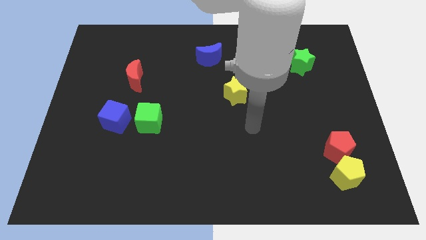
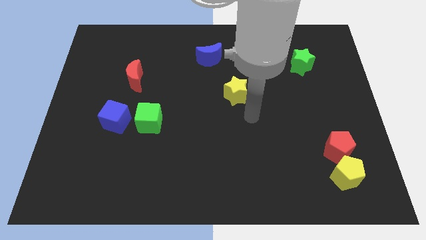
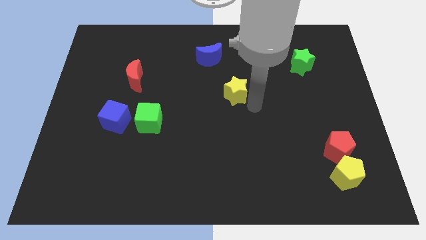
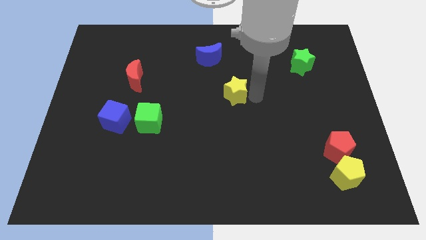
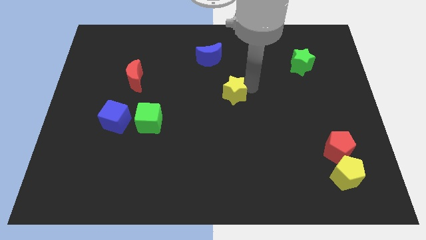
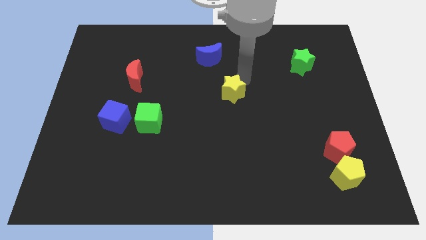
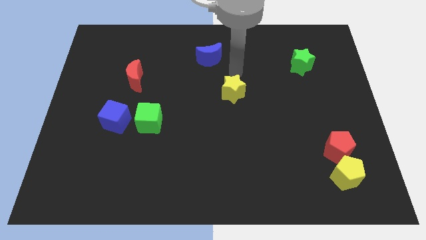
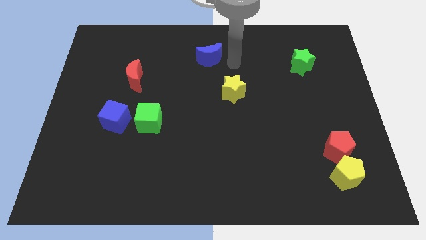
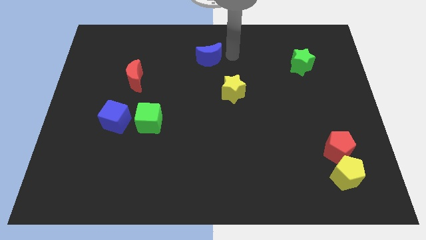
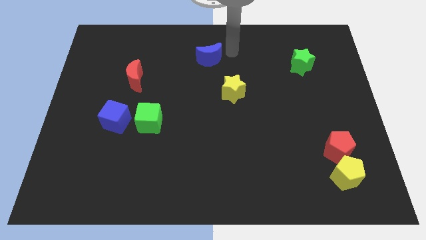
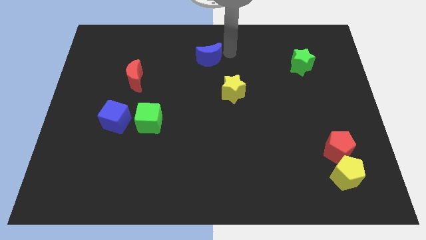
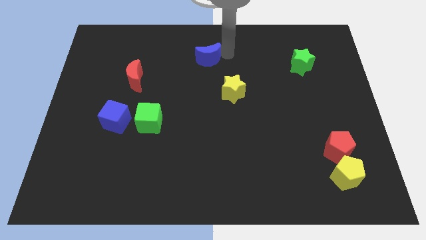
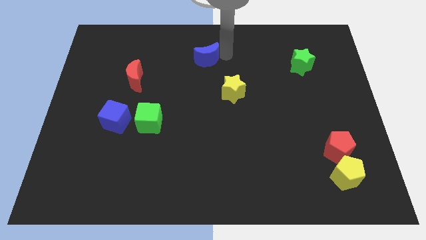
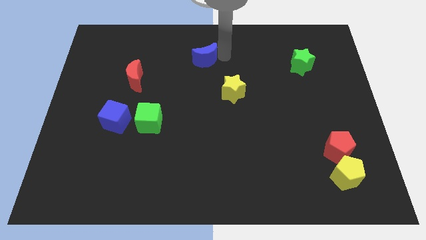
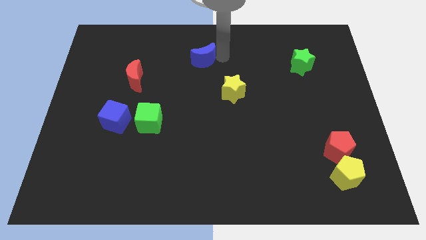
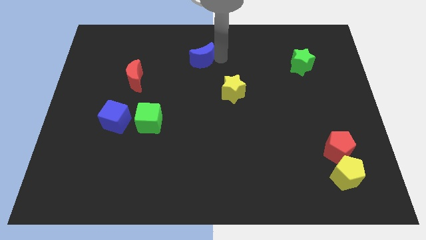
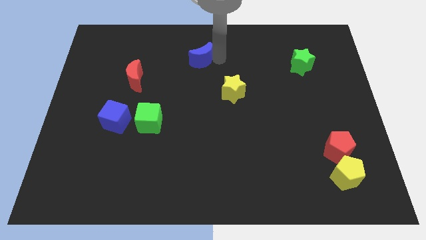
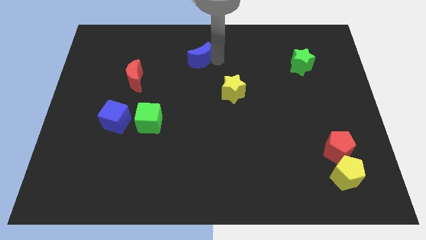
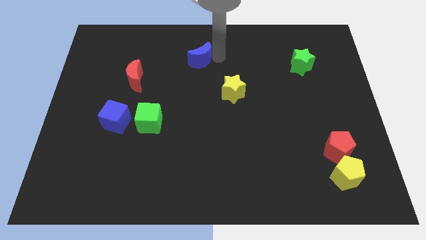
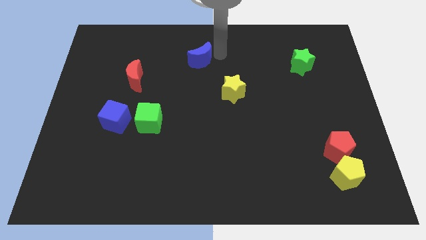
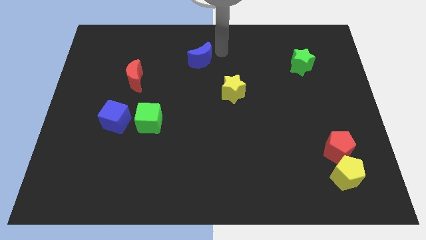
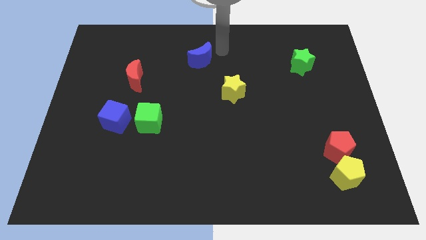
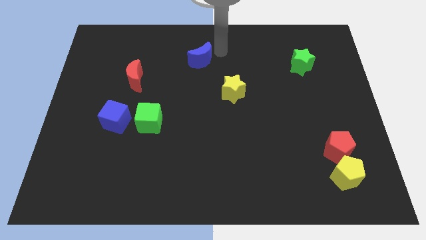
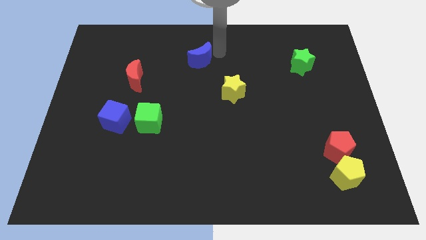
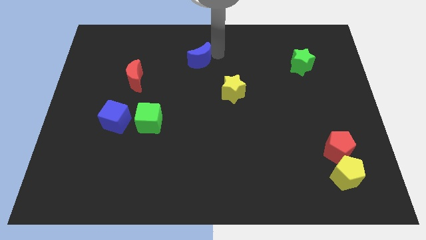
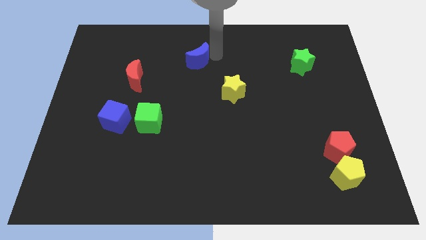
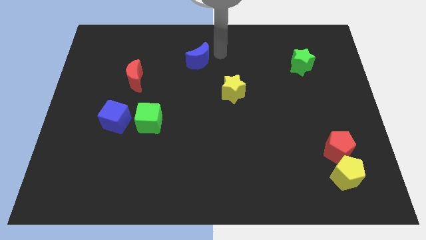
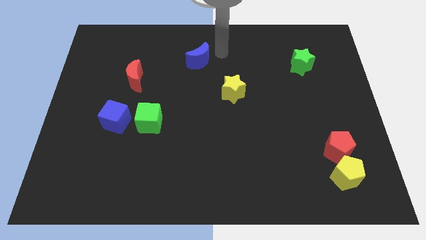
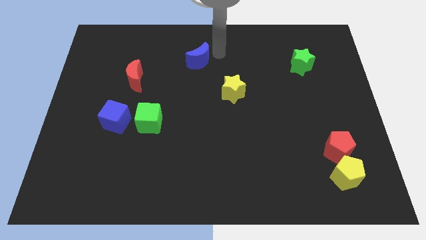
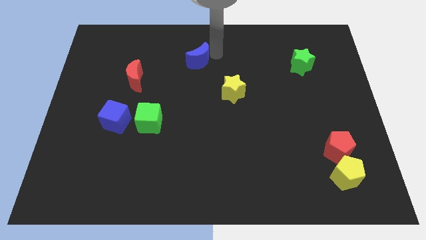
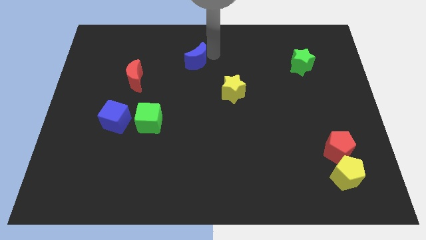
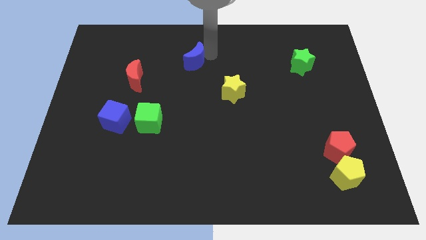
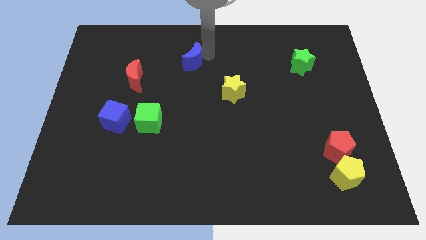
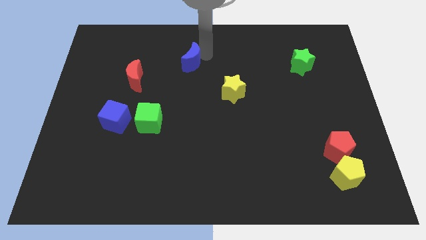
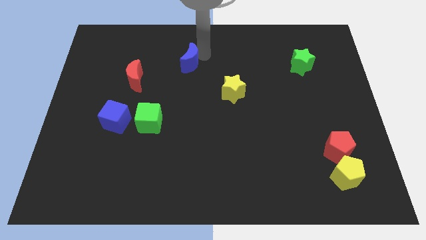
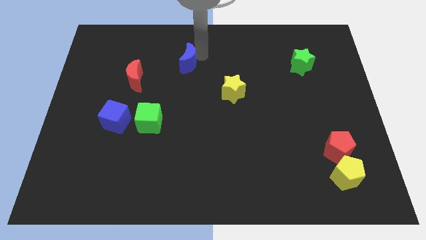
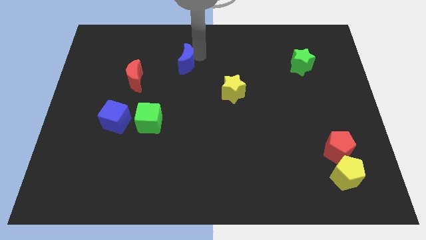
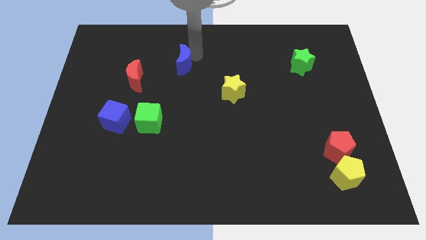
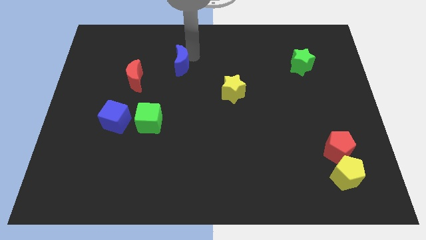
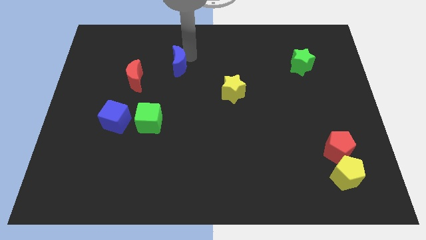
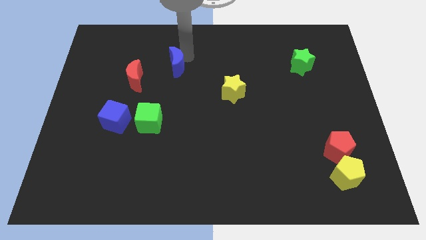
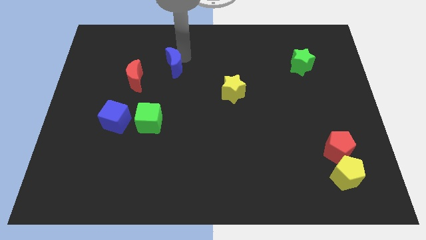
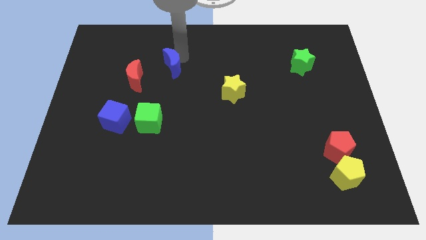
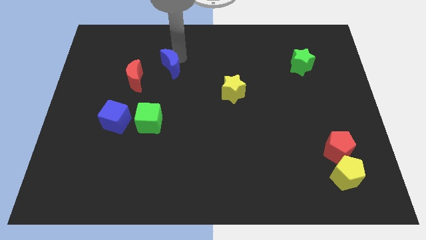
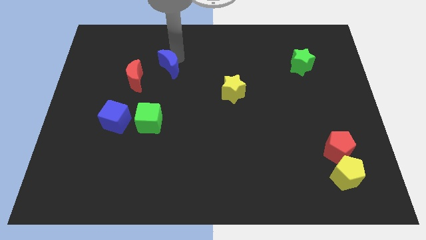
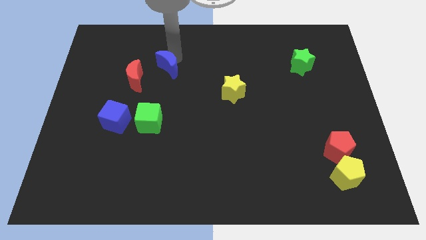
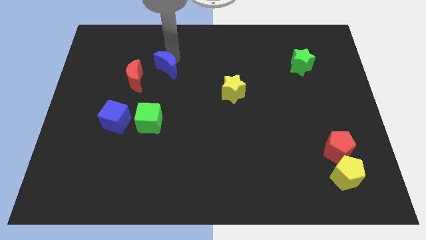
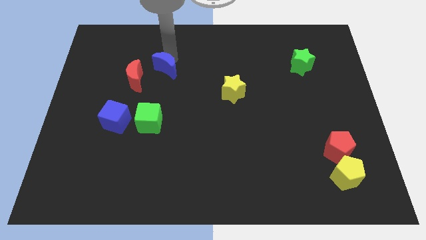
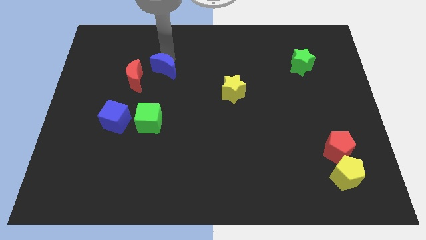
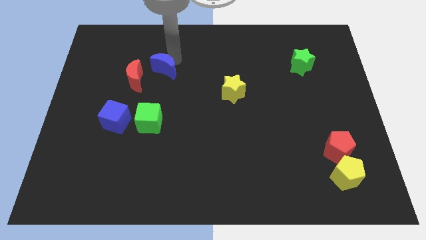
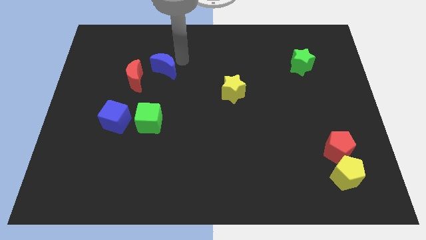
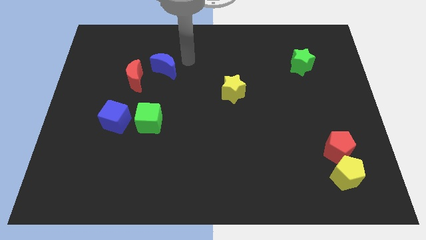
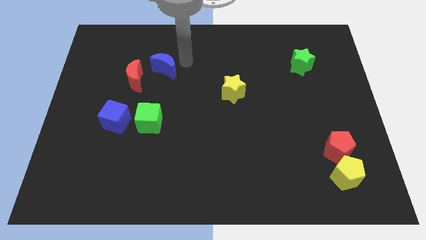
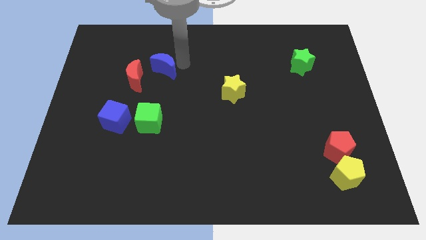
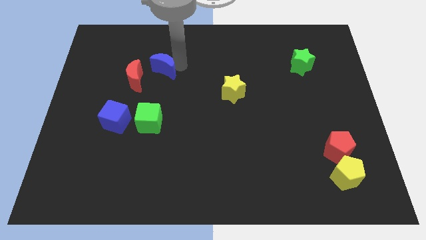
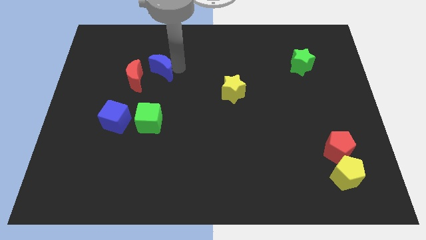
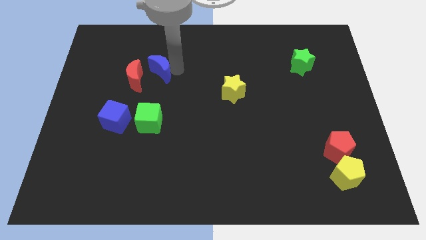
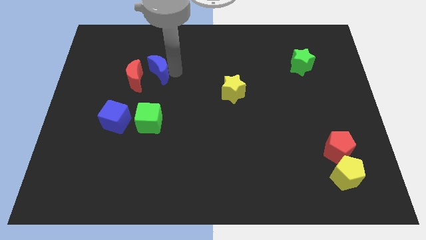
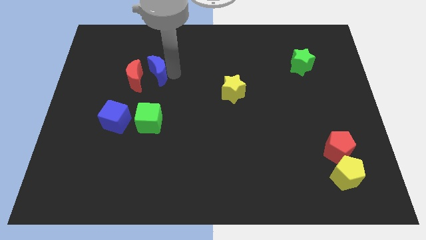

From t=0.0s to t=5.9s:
push the blue moon next to the red moon

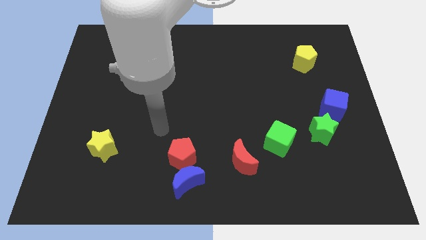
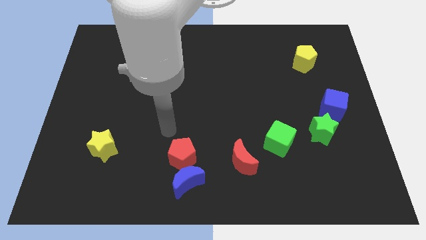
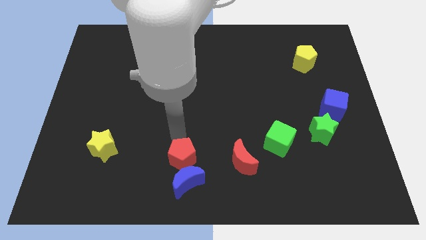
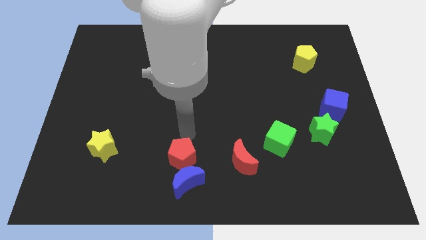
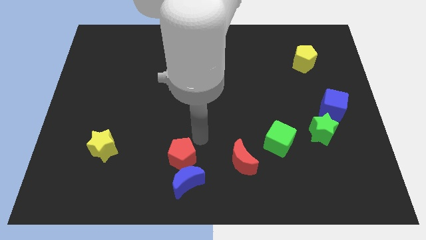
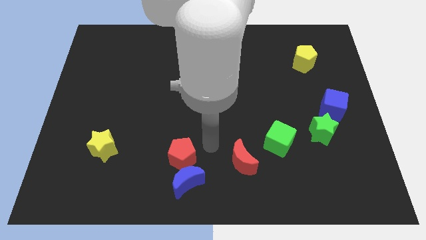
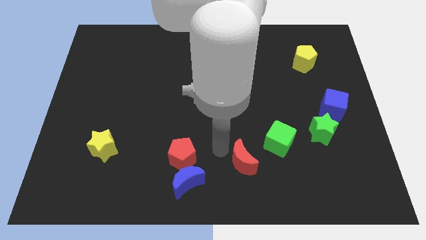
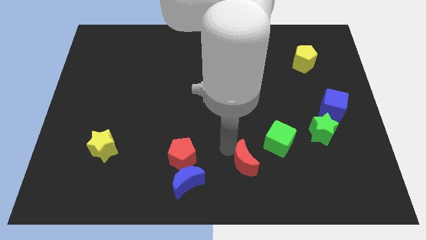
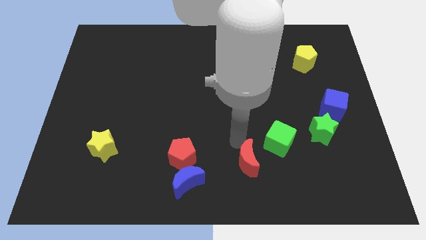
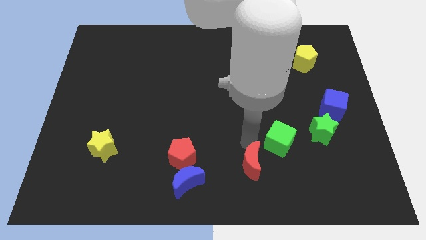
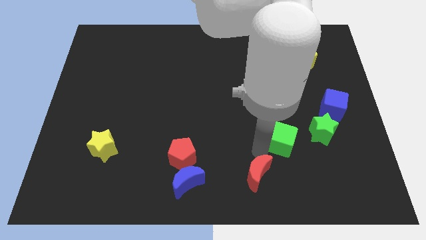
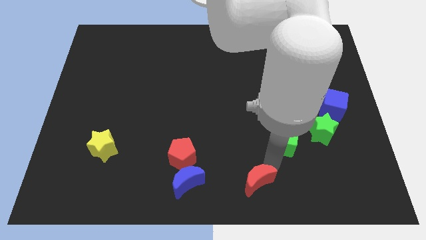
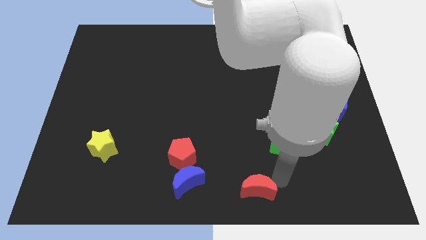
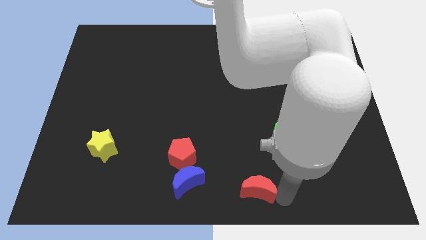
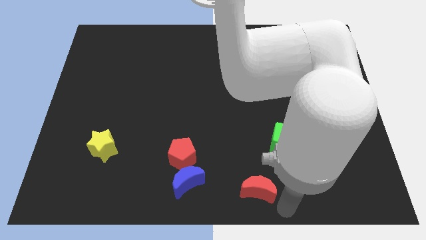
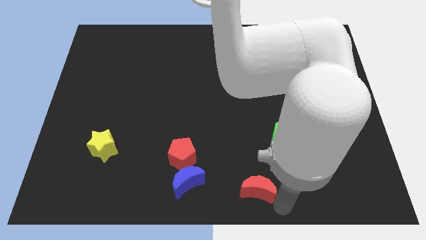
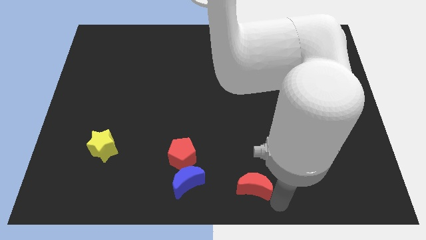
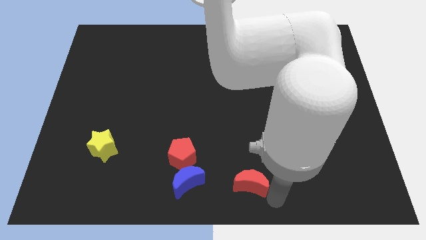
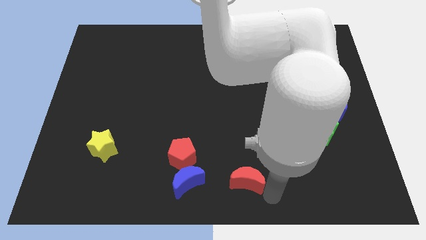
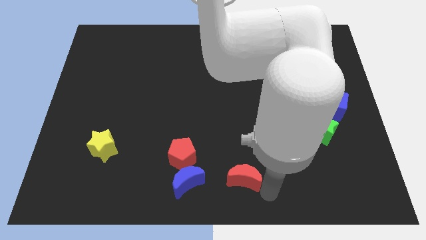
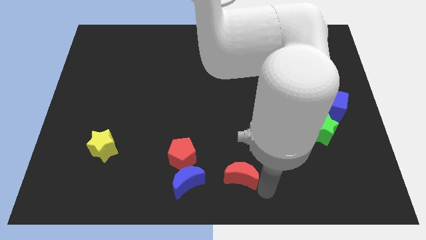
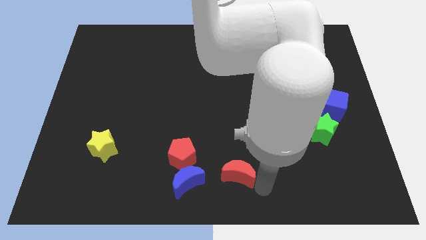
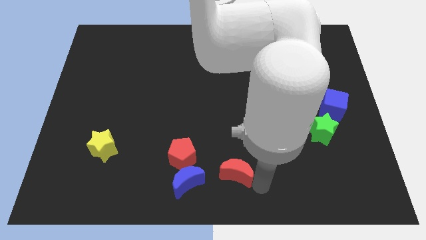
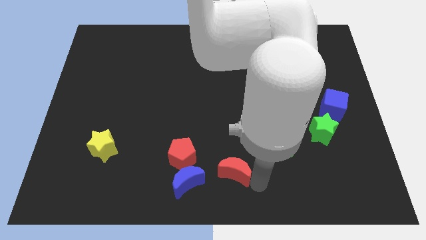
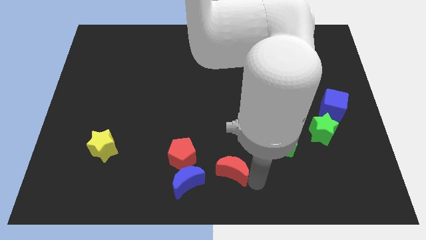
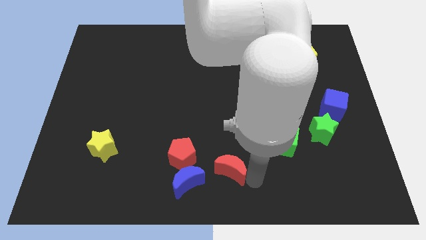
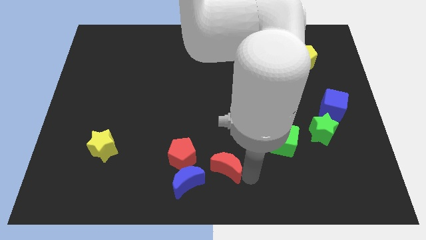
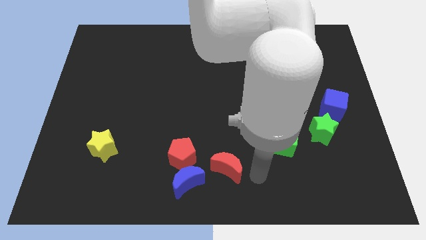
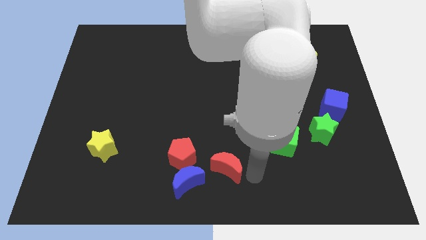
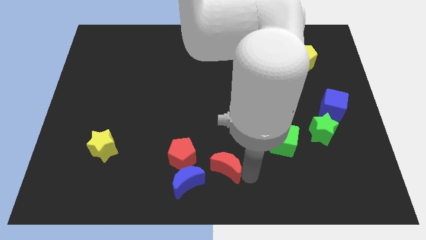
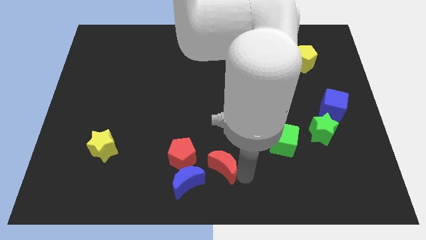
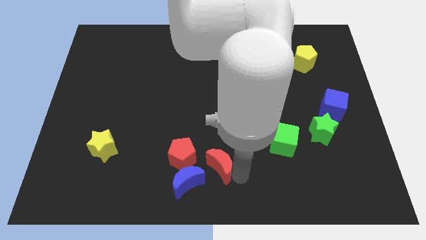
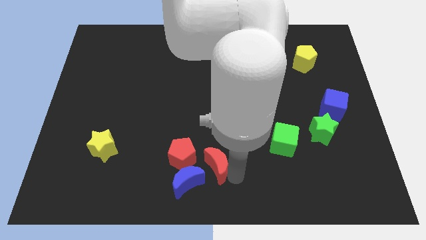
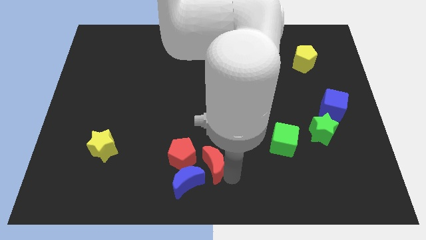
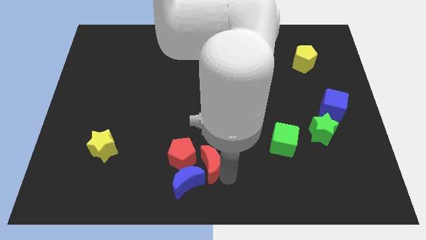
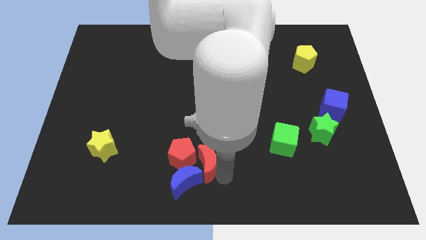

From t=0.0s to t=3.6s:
slide the red moon next to the red pentagon
